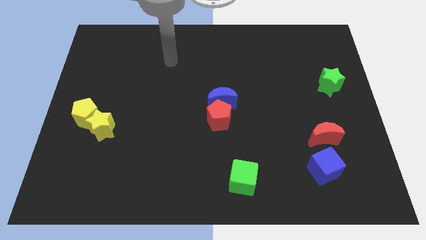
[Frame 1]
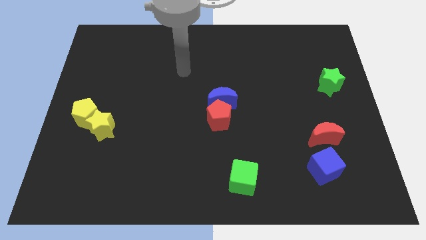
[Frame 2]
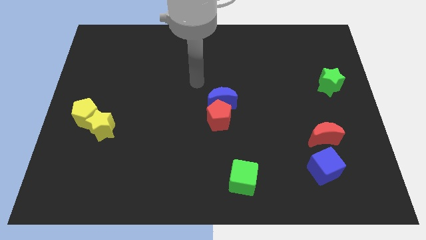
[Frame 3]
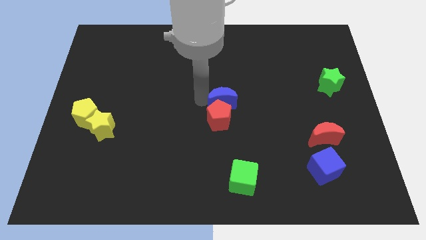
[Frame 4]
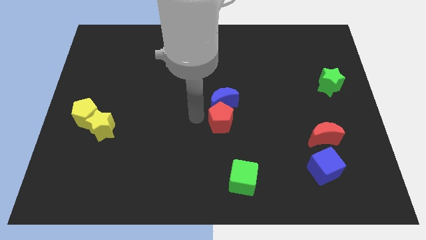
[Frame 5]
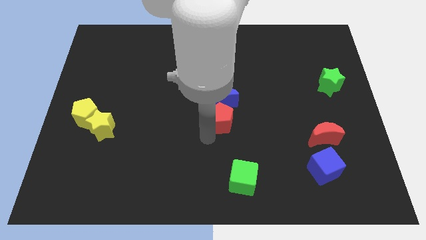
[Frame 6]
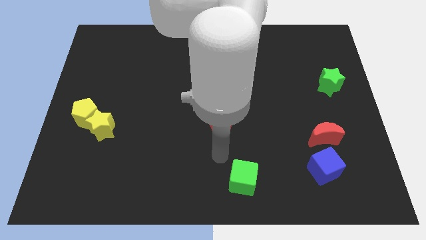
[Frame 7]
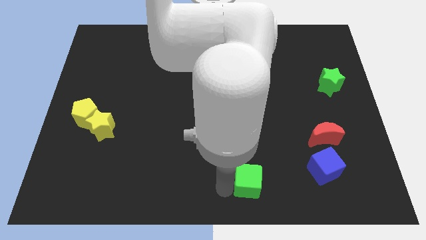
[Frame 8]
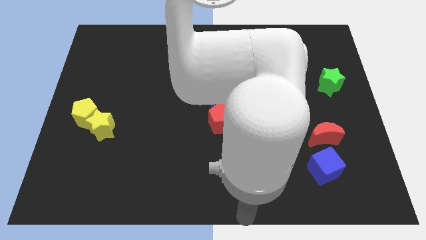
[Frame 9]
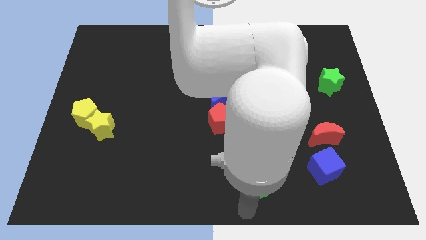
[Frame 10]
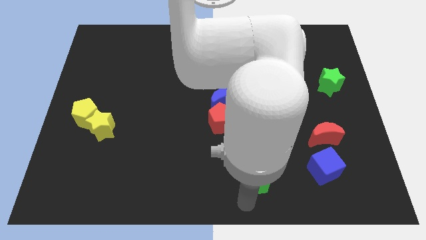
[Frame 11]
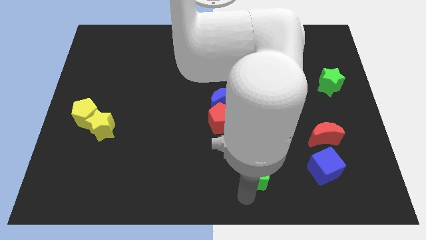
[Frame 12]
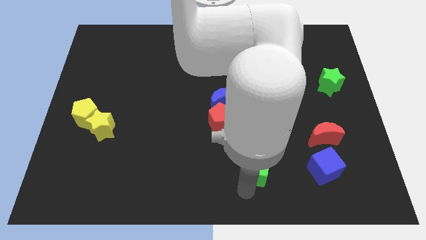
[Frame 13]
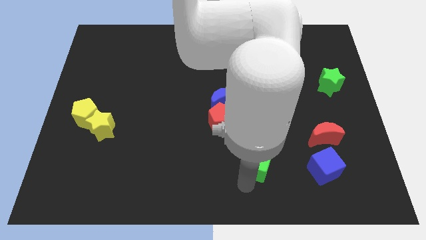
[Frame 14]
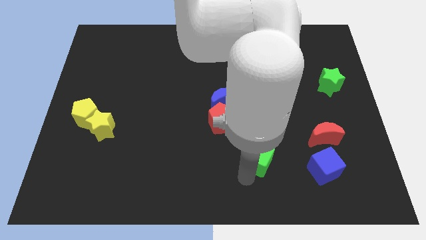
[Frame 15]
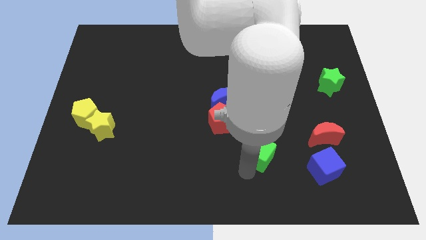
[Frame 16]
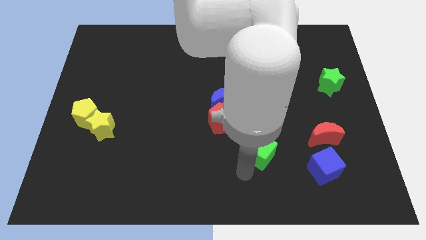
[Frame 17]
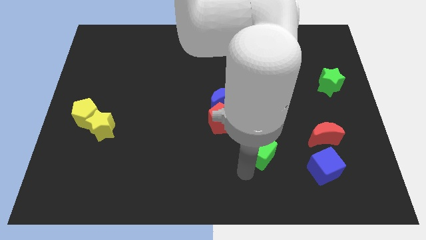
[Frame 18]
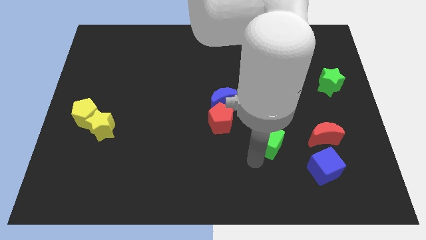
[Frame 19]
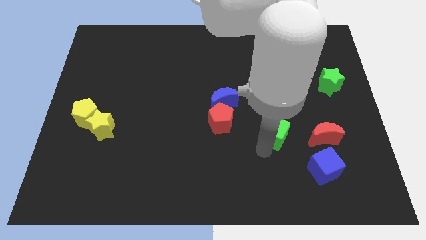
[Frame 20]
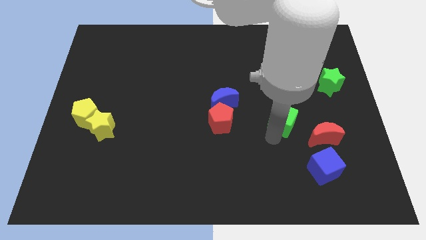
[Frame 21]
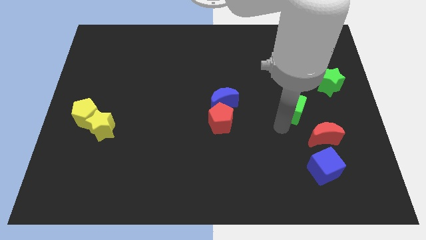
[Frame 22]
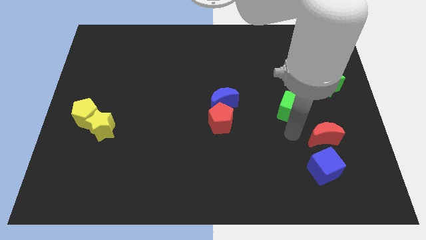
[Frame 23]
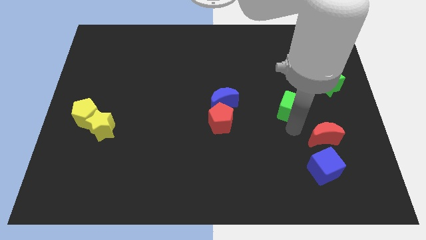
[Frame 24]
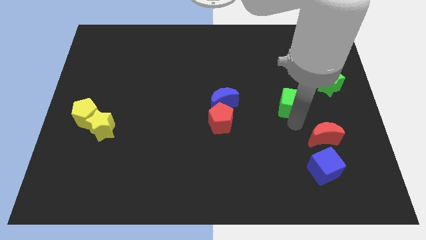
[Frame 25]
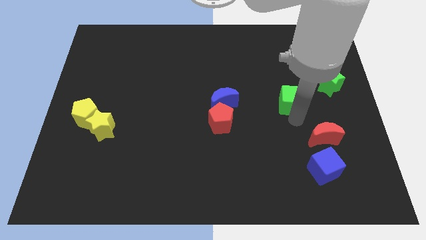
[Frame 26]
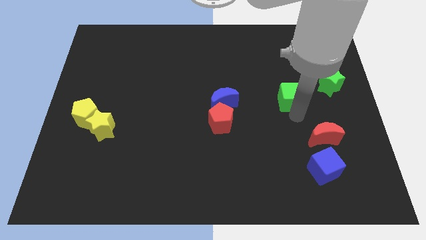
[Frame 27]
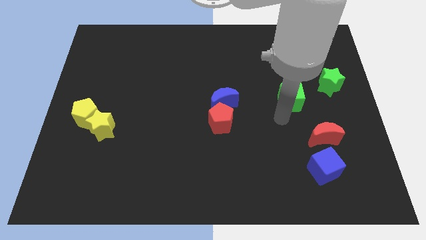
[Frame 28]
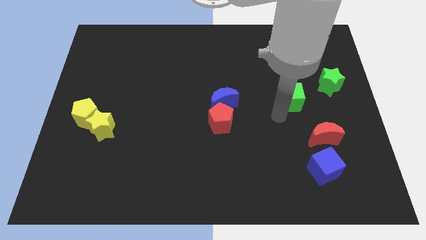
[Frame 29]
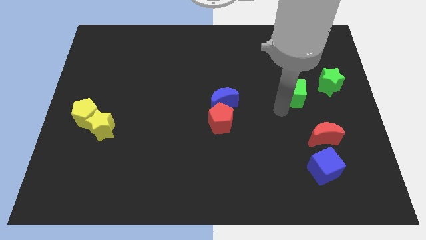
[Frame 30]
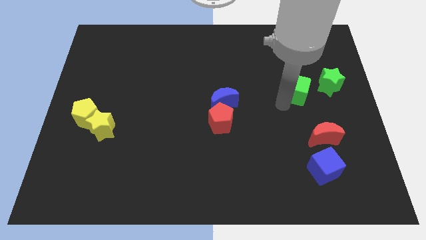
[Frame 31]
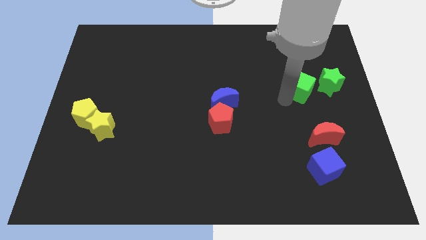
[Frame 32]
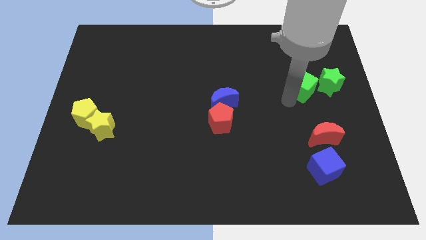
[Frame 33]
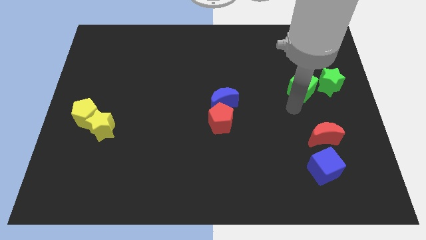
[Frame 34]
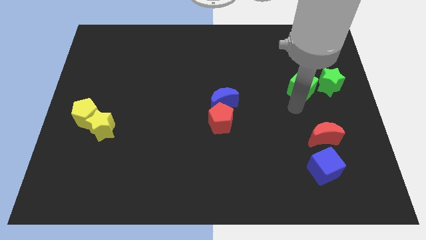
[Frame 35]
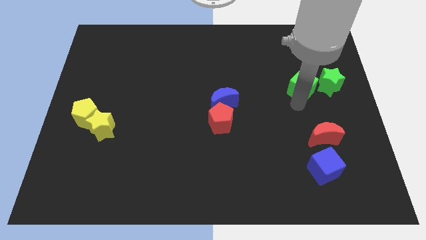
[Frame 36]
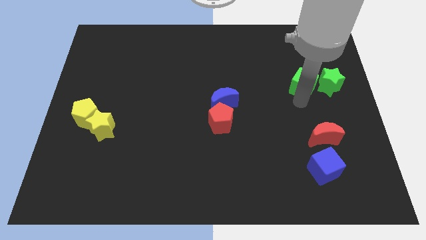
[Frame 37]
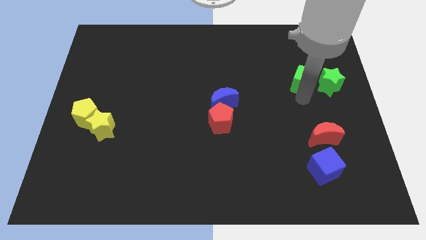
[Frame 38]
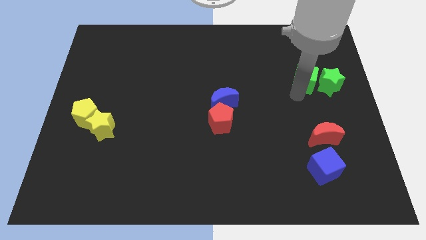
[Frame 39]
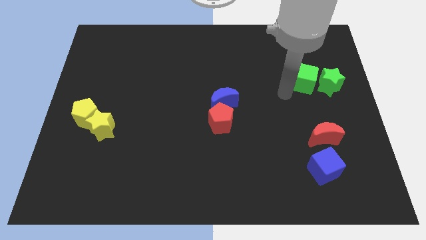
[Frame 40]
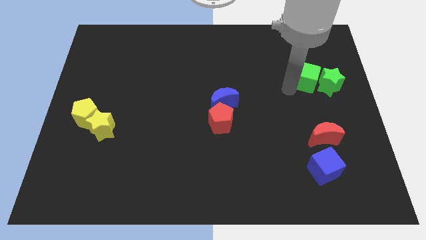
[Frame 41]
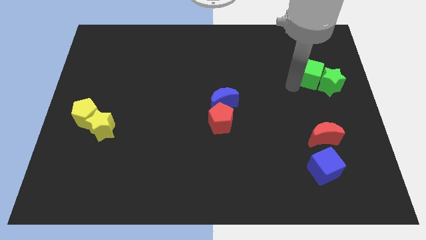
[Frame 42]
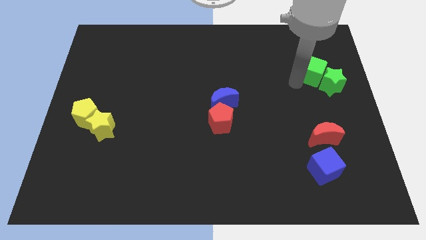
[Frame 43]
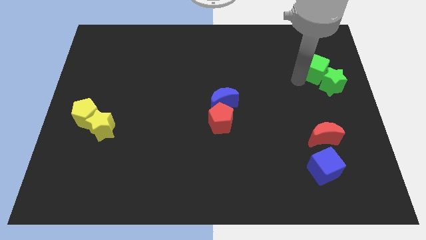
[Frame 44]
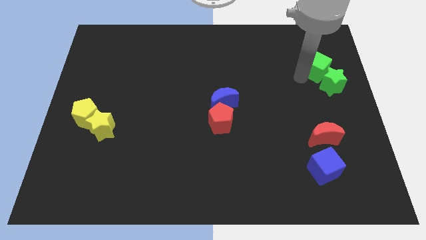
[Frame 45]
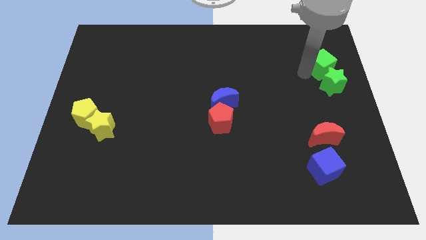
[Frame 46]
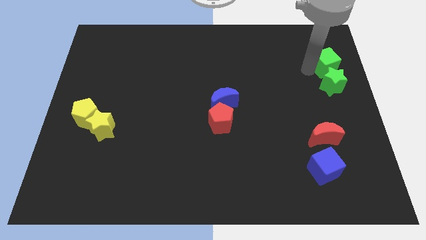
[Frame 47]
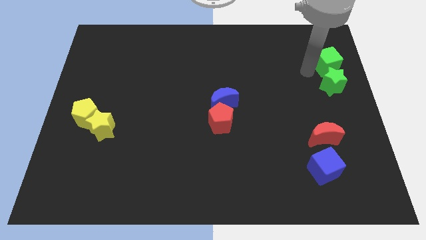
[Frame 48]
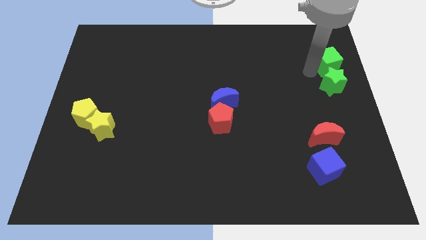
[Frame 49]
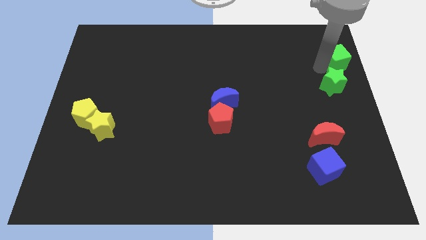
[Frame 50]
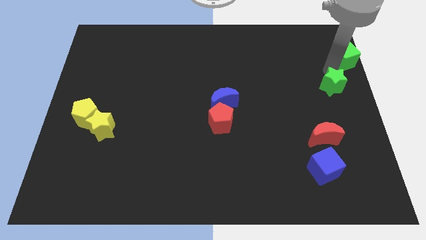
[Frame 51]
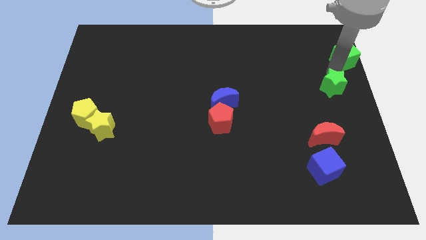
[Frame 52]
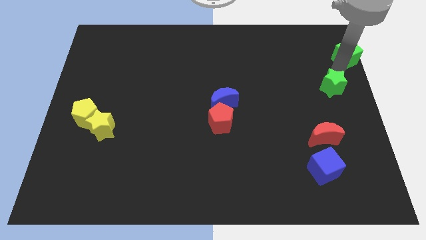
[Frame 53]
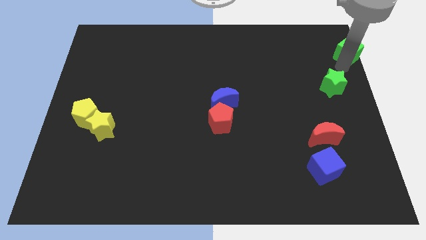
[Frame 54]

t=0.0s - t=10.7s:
slide the green cube to the top right of the board

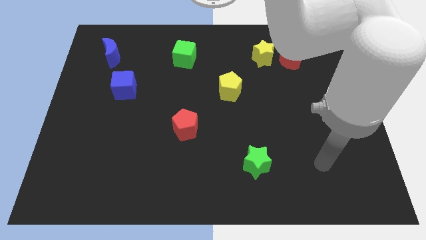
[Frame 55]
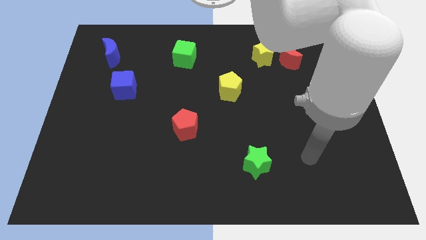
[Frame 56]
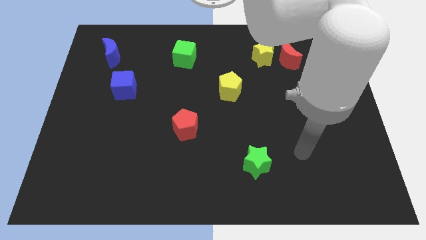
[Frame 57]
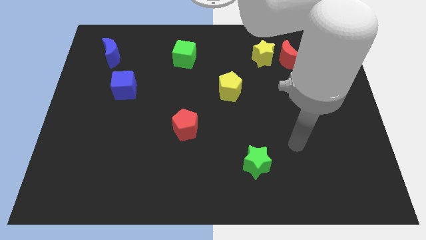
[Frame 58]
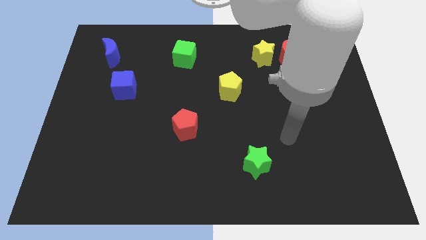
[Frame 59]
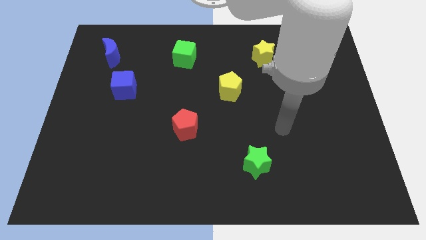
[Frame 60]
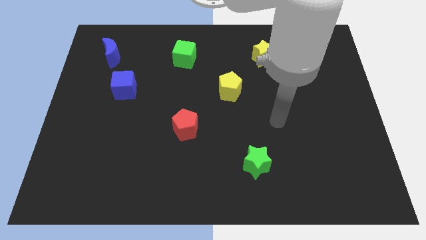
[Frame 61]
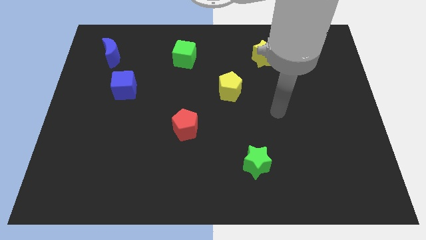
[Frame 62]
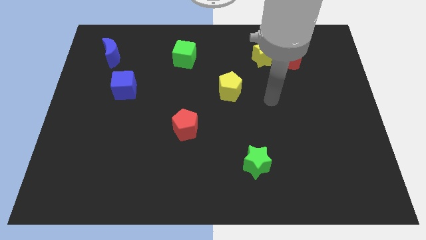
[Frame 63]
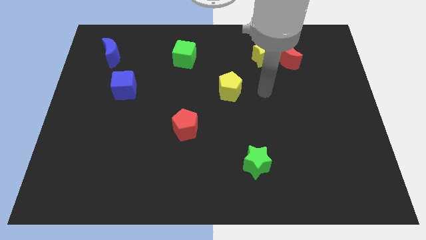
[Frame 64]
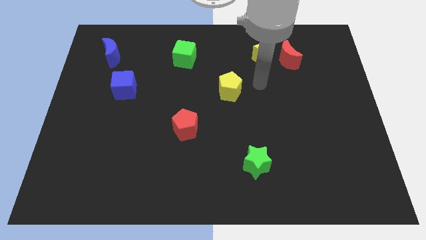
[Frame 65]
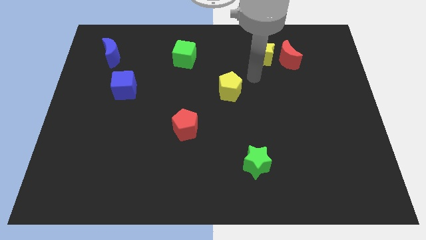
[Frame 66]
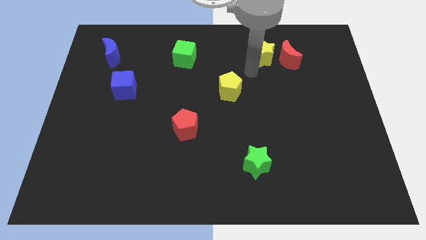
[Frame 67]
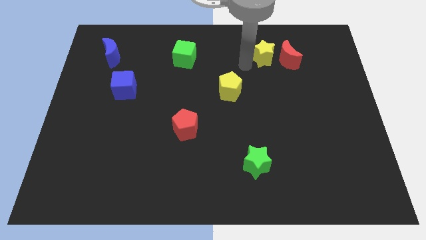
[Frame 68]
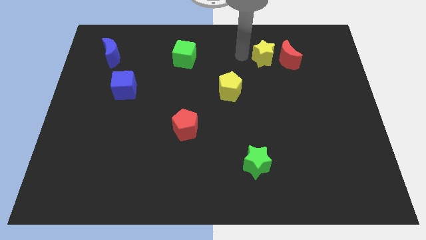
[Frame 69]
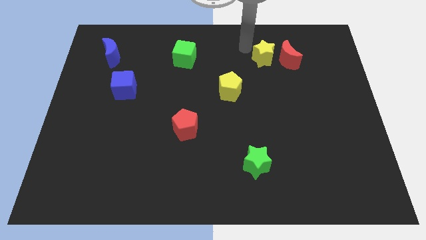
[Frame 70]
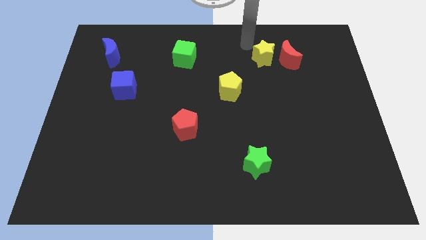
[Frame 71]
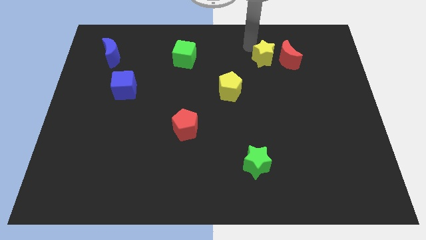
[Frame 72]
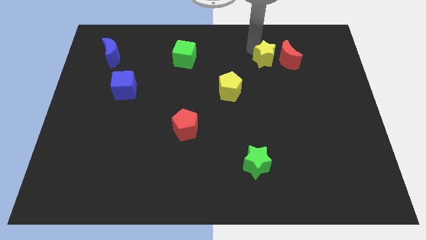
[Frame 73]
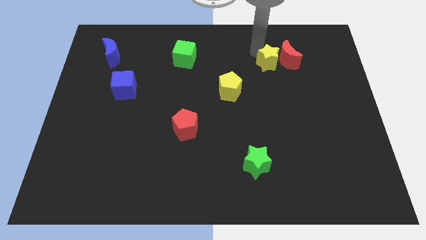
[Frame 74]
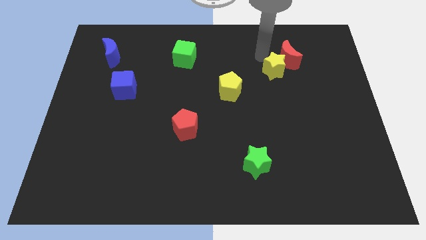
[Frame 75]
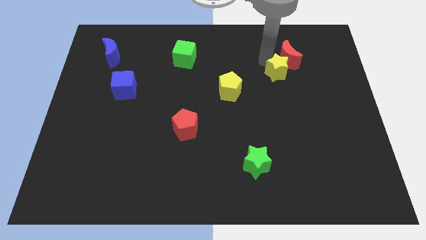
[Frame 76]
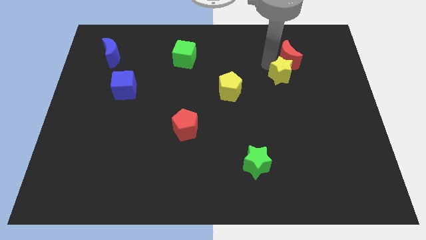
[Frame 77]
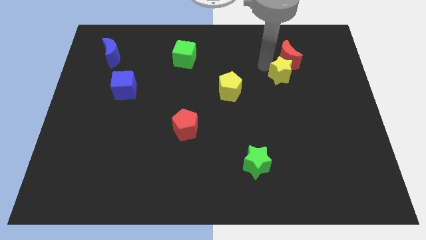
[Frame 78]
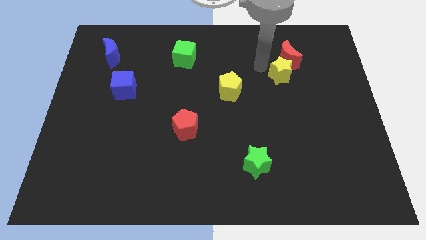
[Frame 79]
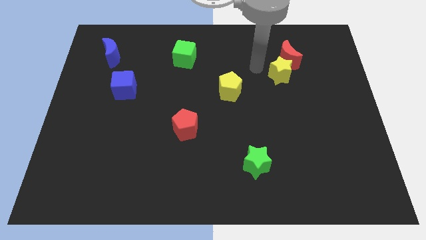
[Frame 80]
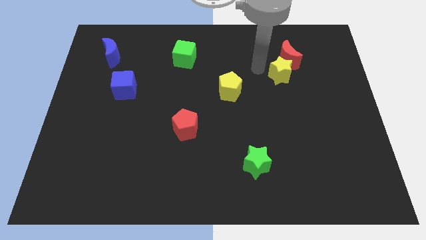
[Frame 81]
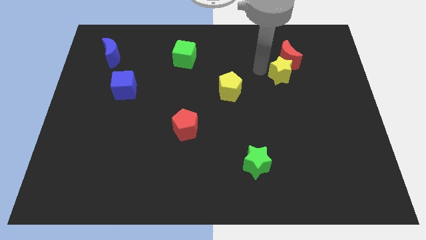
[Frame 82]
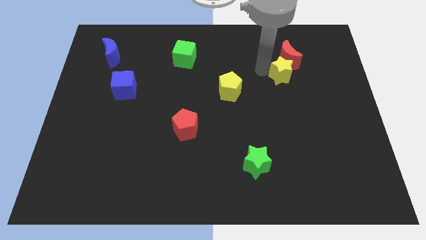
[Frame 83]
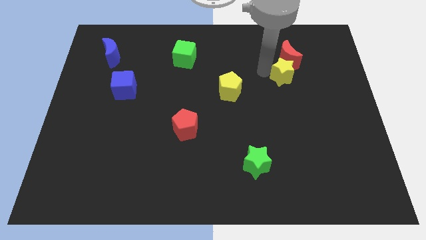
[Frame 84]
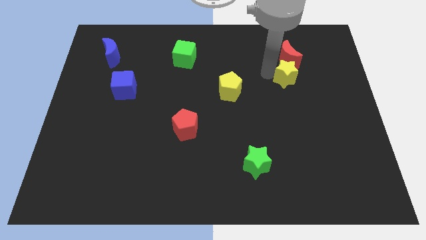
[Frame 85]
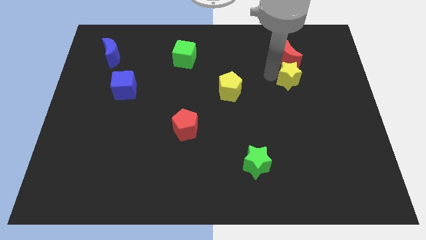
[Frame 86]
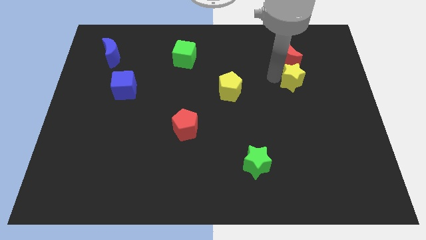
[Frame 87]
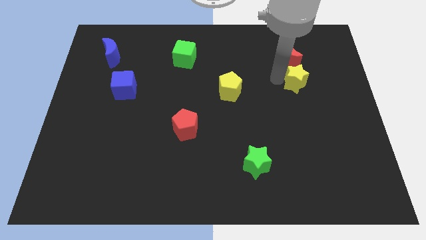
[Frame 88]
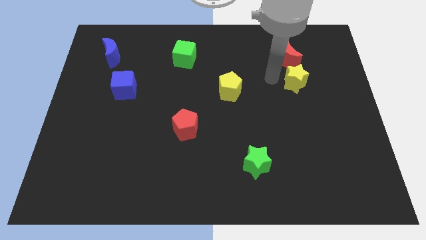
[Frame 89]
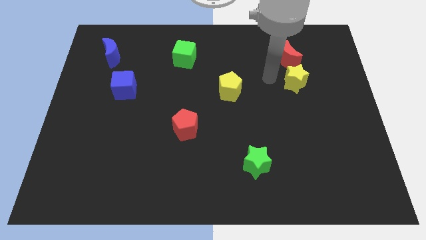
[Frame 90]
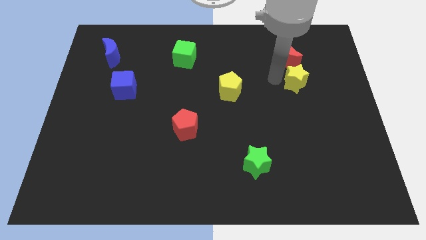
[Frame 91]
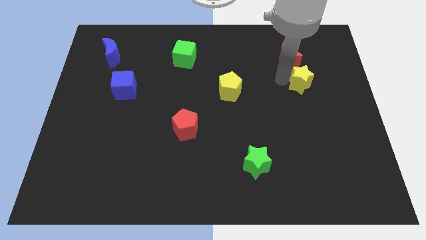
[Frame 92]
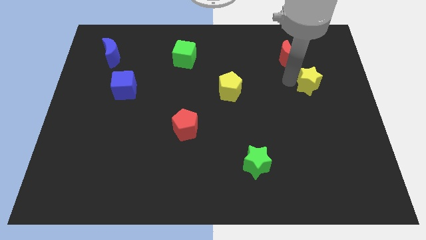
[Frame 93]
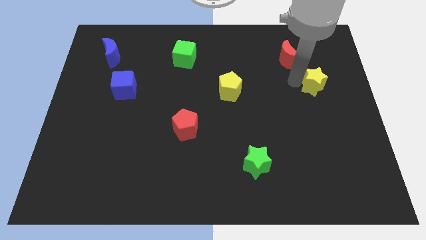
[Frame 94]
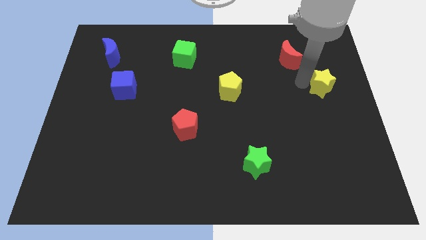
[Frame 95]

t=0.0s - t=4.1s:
put the yellow star to the right side
